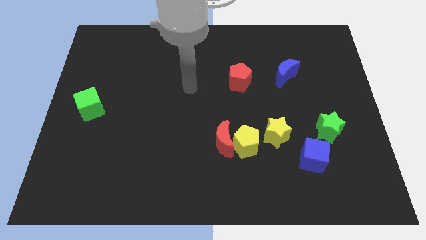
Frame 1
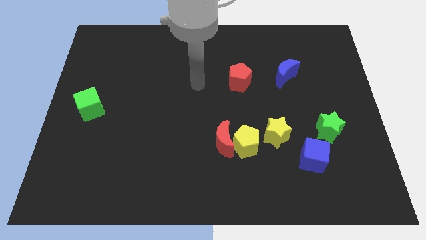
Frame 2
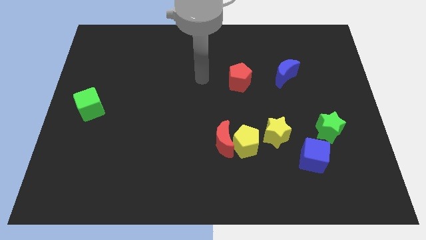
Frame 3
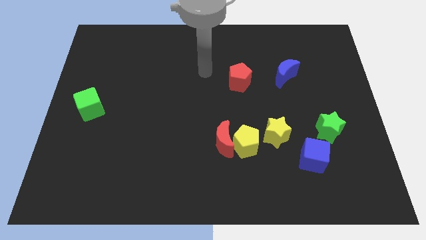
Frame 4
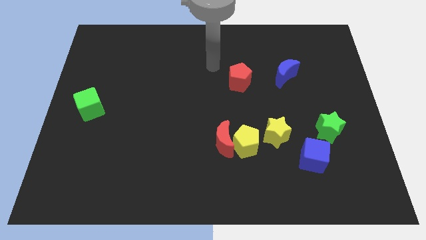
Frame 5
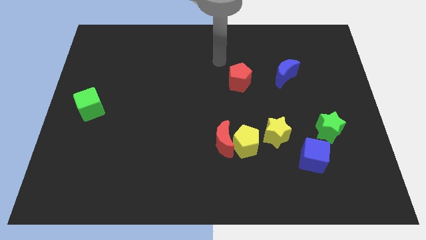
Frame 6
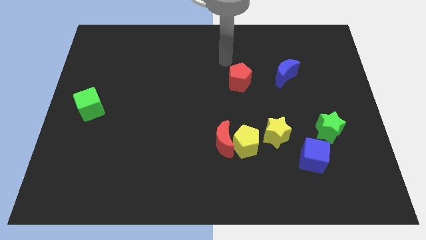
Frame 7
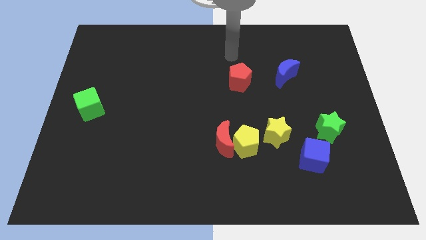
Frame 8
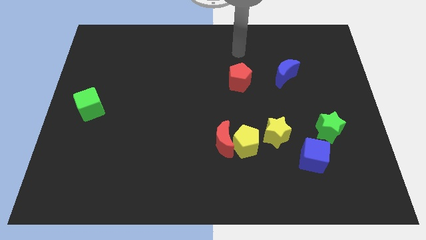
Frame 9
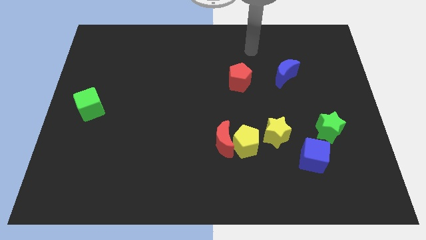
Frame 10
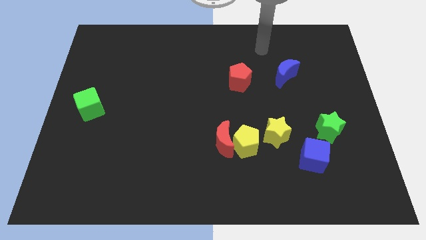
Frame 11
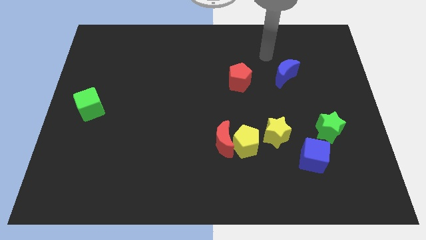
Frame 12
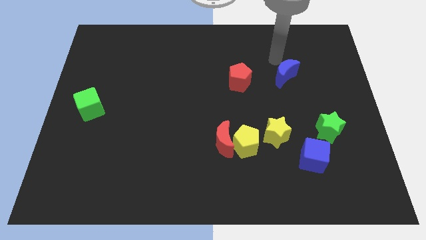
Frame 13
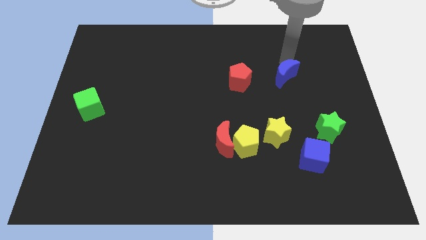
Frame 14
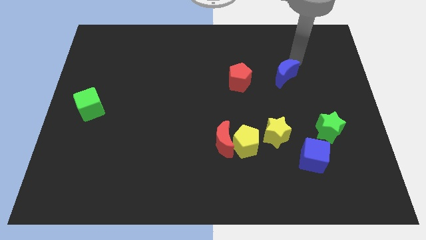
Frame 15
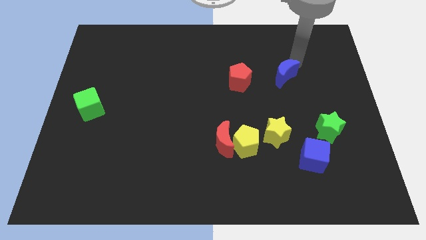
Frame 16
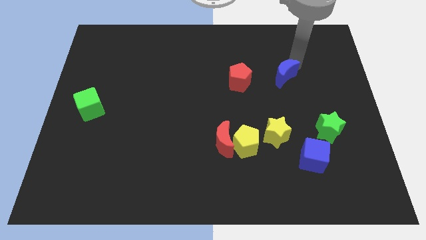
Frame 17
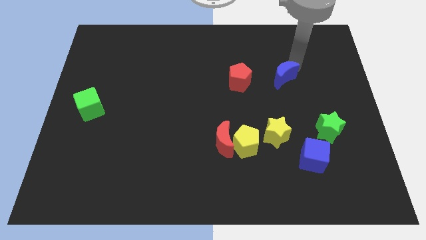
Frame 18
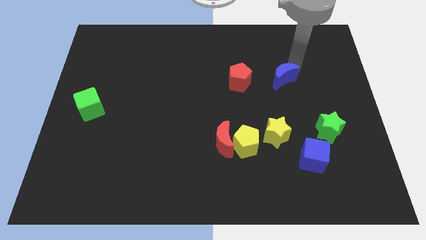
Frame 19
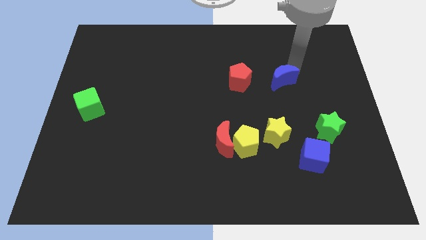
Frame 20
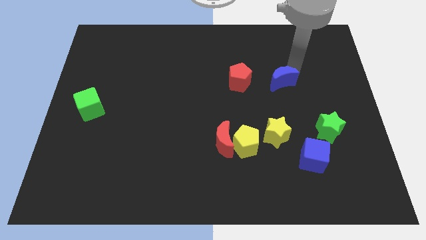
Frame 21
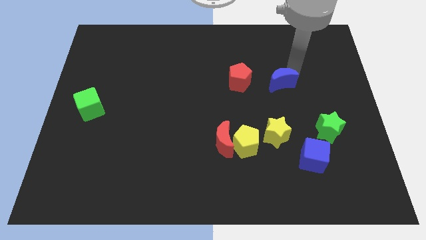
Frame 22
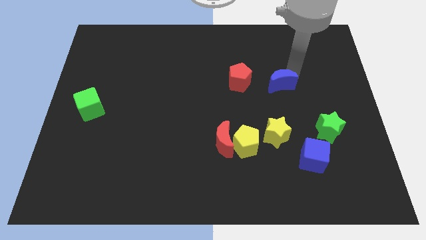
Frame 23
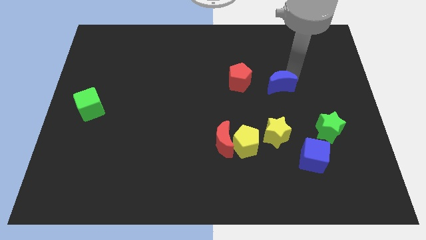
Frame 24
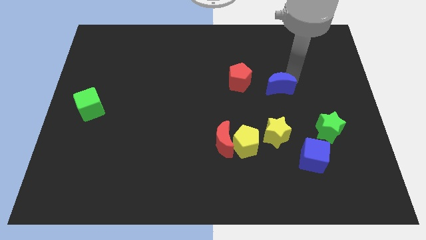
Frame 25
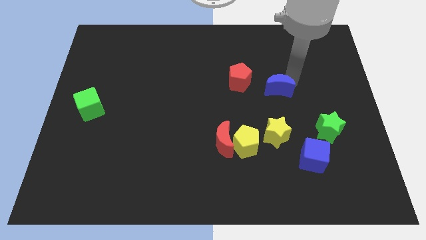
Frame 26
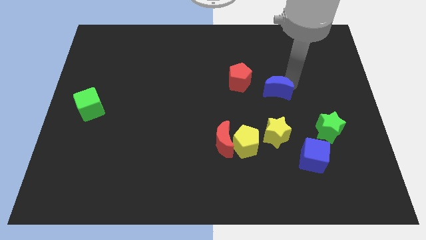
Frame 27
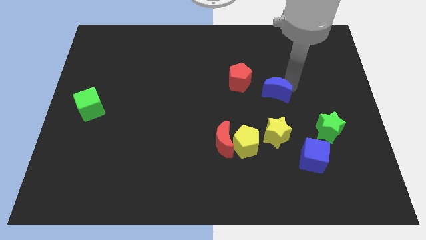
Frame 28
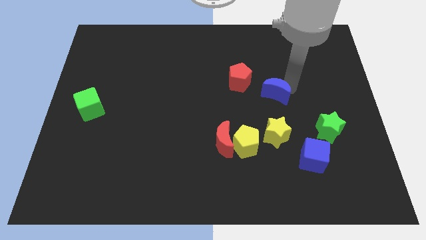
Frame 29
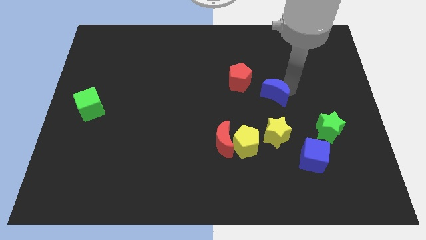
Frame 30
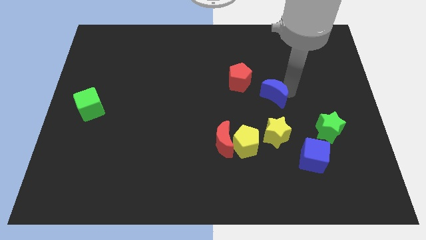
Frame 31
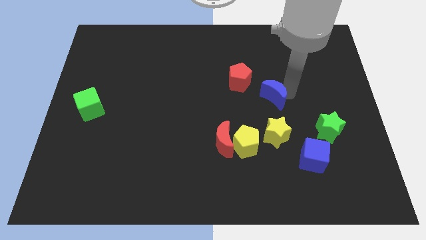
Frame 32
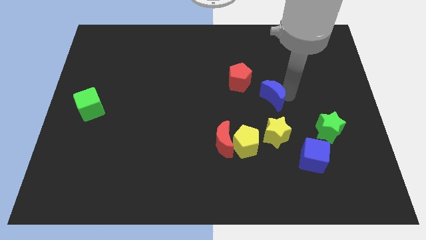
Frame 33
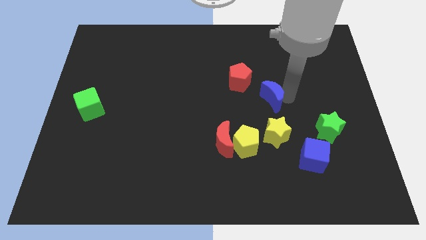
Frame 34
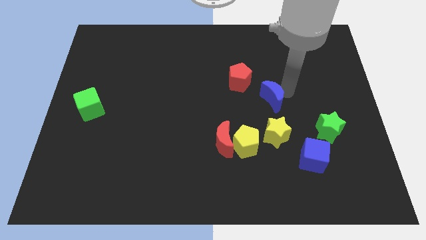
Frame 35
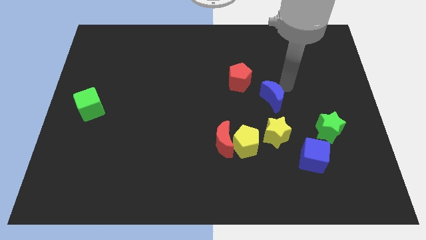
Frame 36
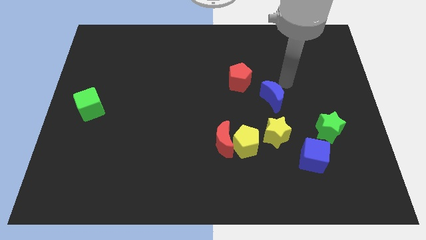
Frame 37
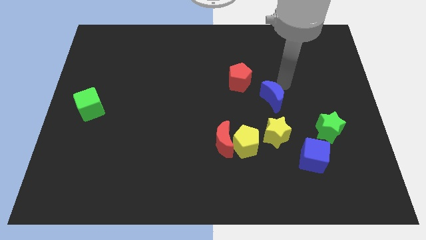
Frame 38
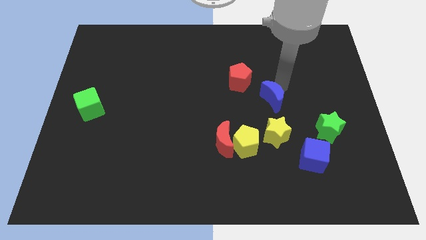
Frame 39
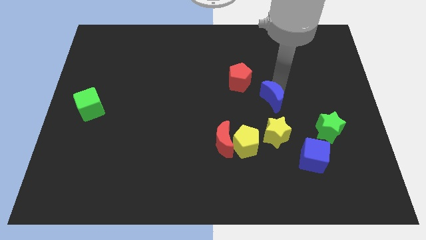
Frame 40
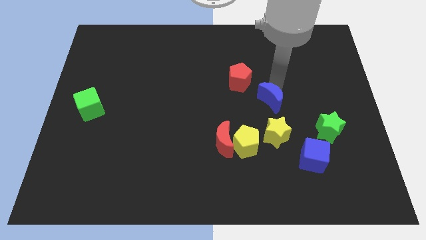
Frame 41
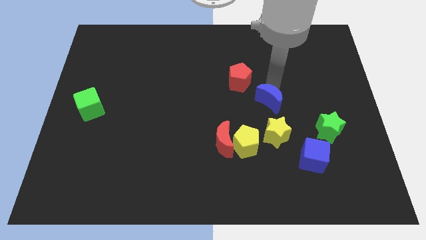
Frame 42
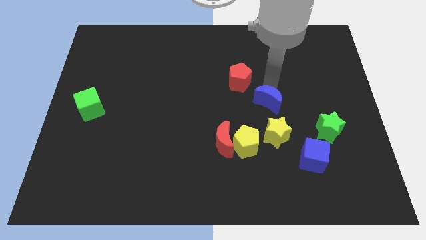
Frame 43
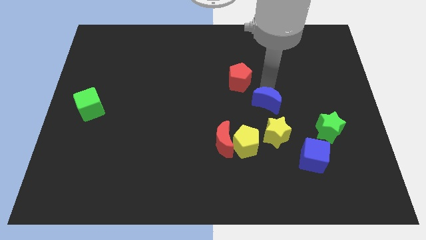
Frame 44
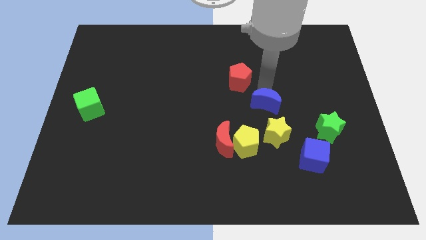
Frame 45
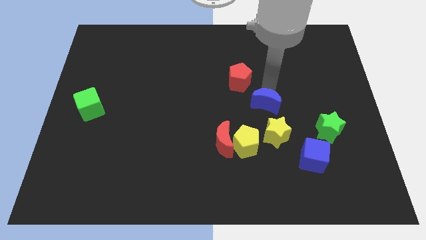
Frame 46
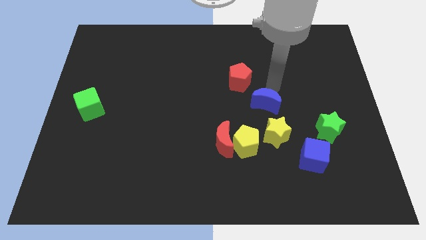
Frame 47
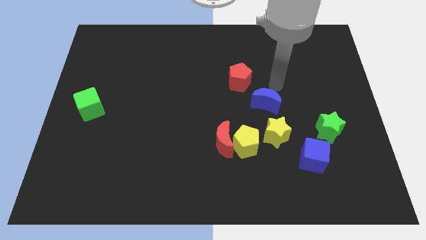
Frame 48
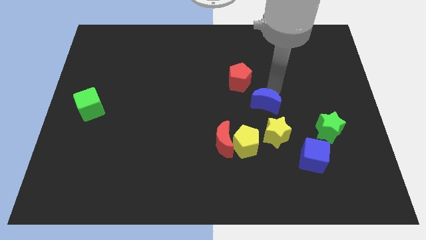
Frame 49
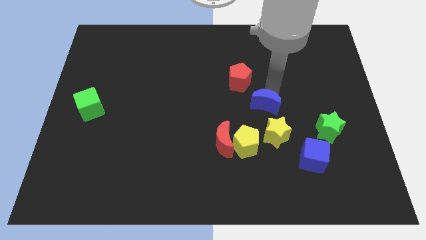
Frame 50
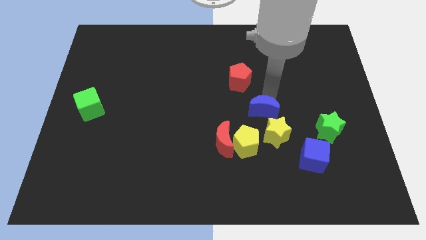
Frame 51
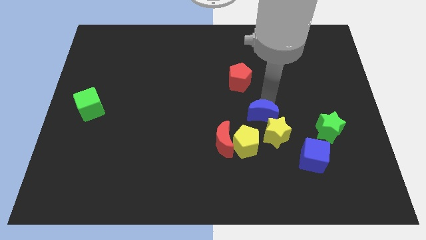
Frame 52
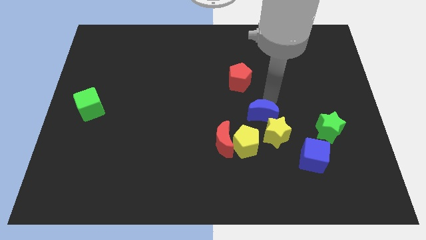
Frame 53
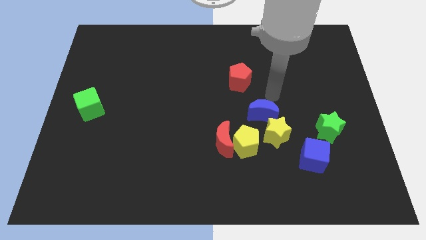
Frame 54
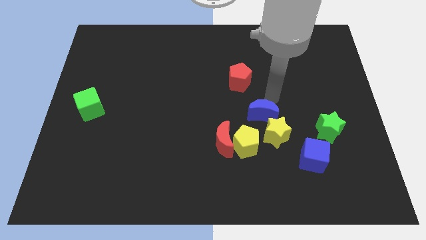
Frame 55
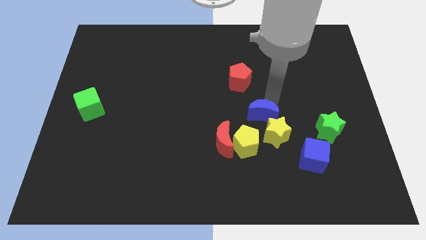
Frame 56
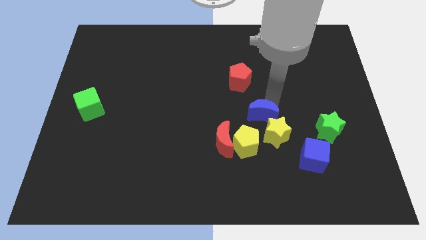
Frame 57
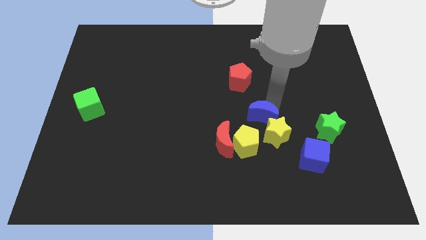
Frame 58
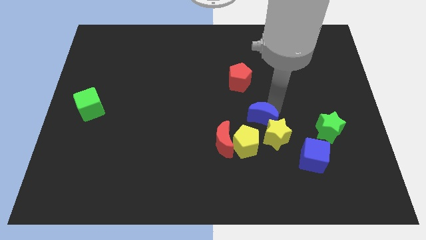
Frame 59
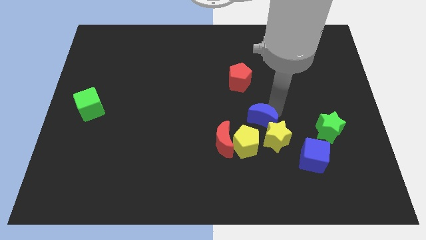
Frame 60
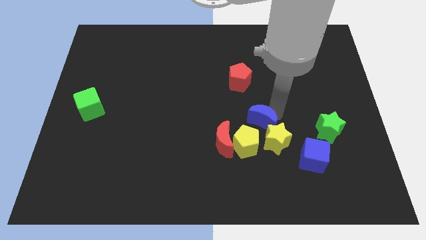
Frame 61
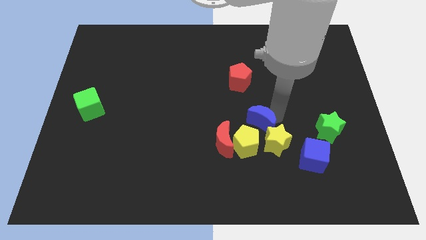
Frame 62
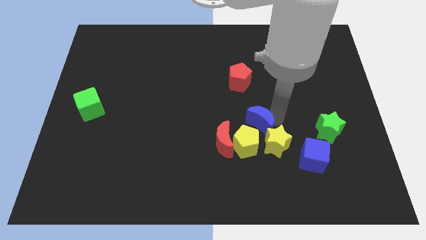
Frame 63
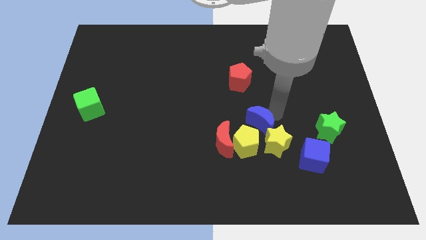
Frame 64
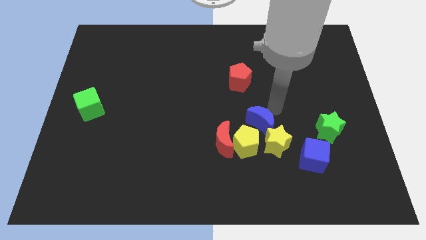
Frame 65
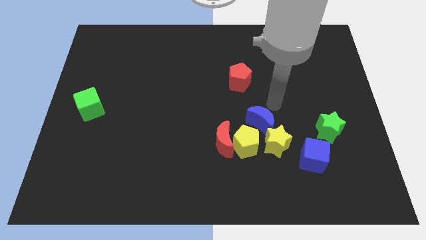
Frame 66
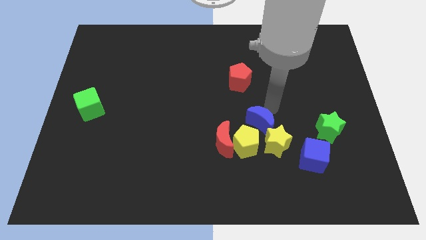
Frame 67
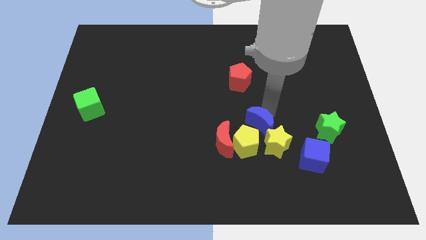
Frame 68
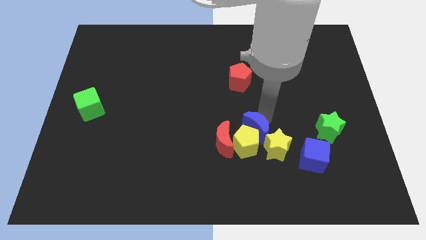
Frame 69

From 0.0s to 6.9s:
push the blue moon to the yellow pentagon

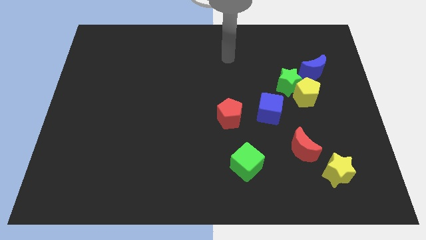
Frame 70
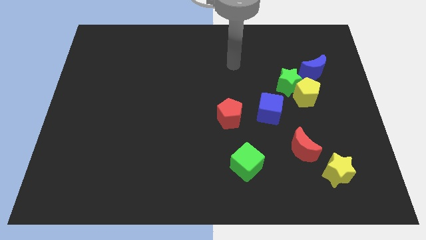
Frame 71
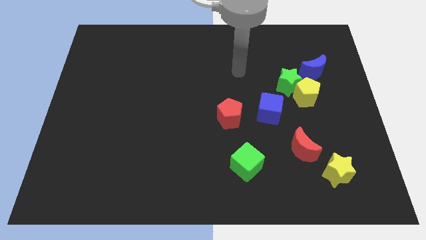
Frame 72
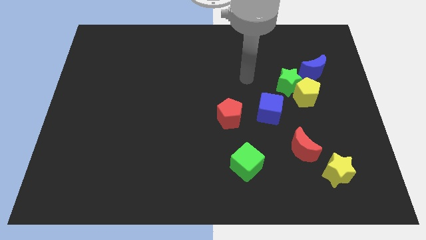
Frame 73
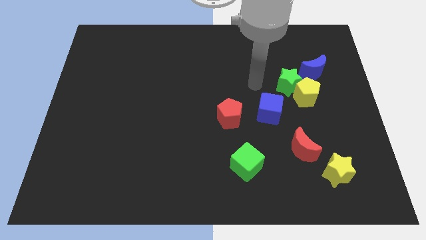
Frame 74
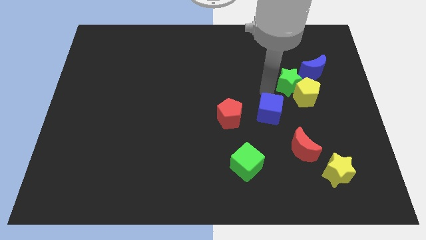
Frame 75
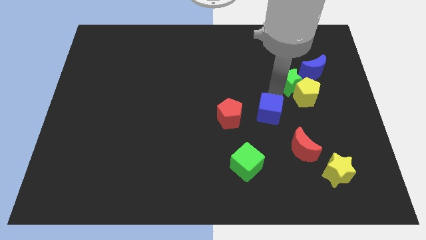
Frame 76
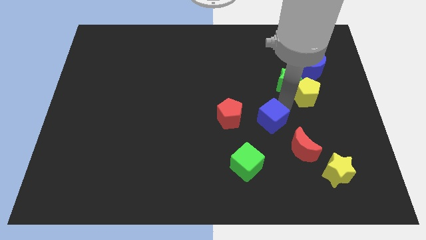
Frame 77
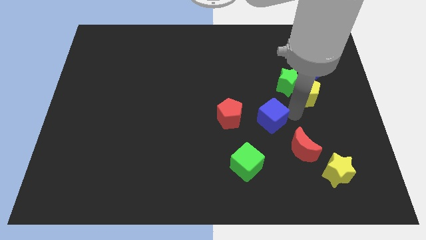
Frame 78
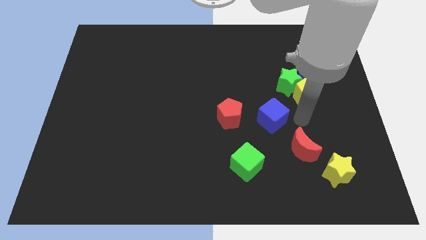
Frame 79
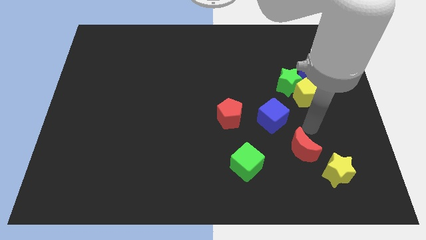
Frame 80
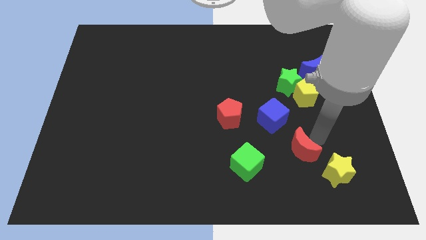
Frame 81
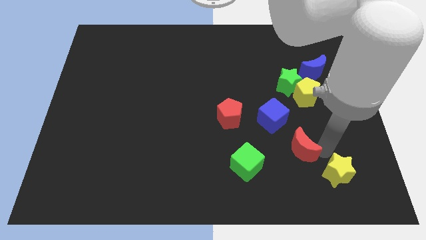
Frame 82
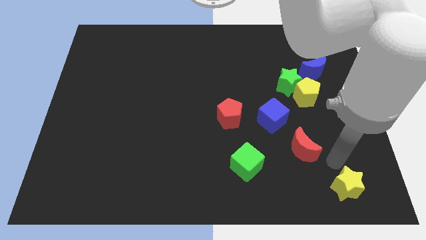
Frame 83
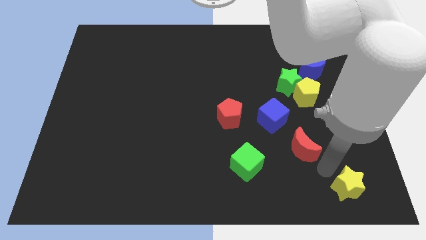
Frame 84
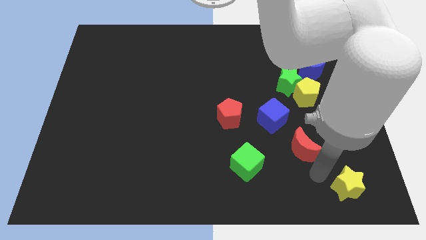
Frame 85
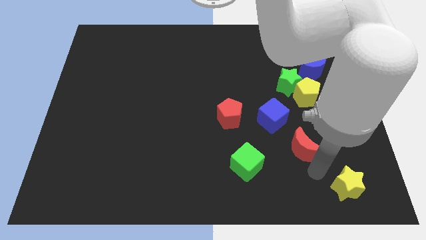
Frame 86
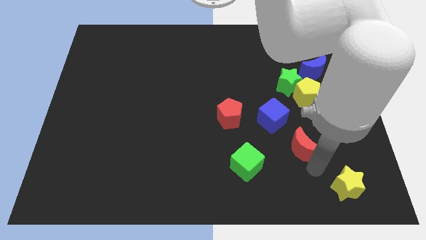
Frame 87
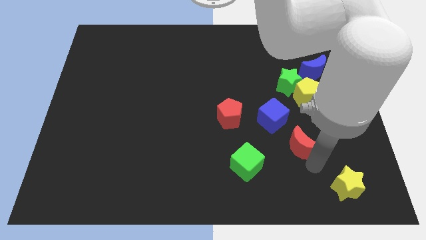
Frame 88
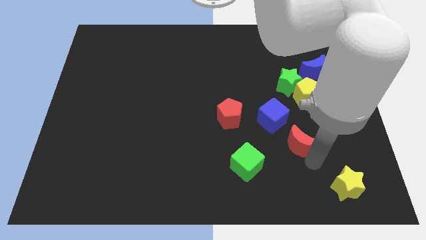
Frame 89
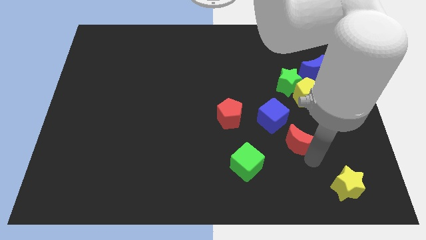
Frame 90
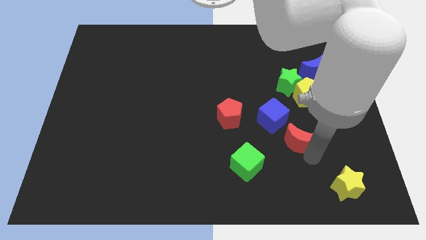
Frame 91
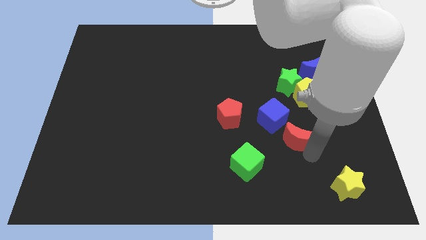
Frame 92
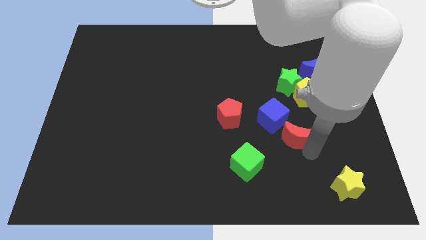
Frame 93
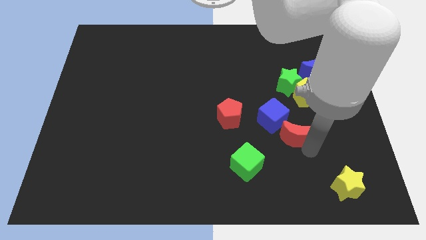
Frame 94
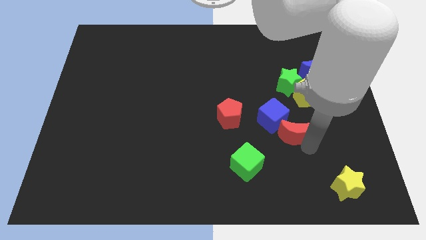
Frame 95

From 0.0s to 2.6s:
put the red moon towards the blue cube
